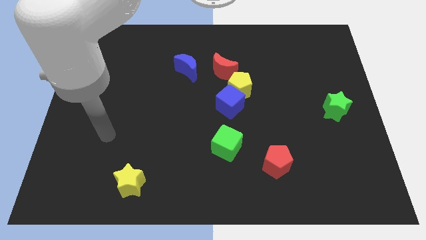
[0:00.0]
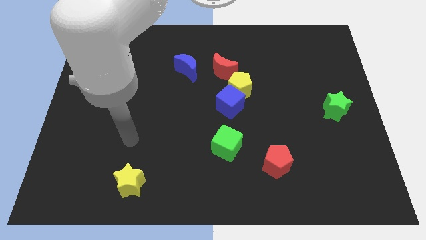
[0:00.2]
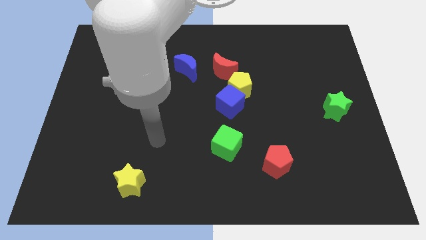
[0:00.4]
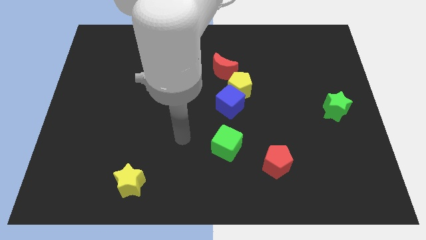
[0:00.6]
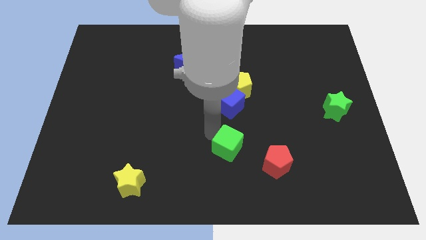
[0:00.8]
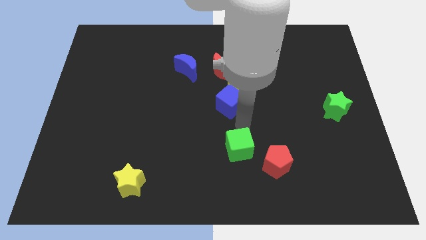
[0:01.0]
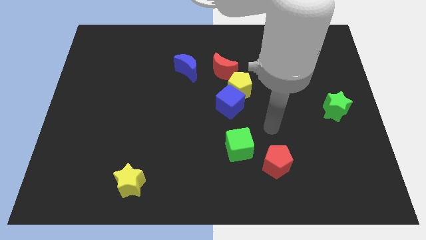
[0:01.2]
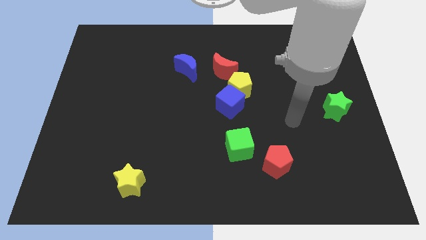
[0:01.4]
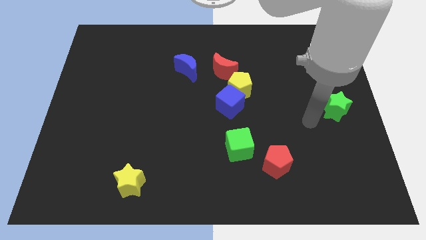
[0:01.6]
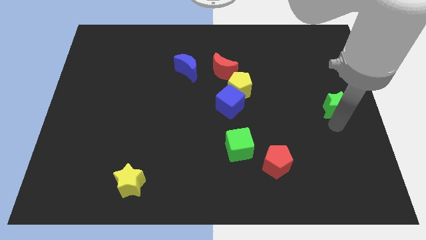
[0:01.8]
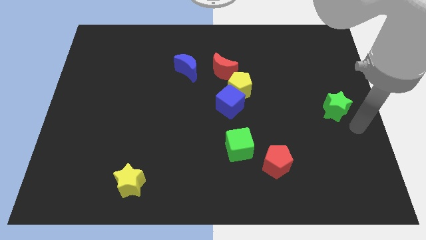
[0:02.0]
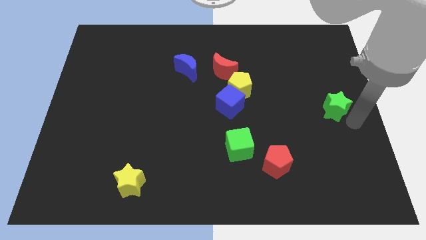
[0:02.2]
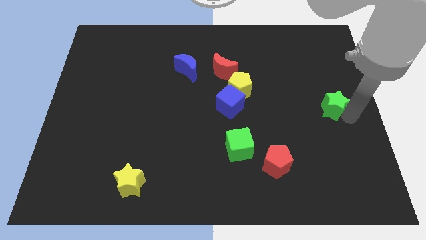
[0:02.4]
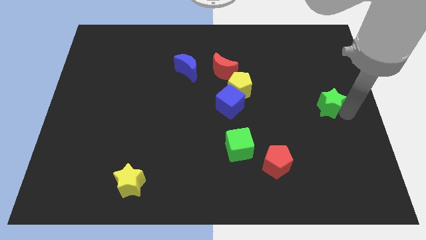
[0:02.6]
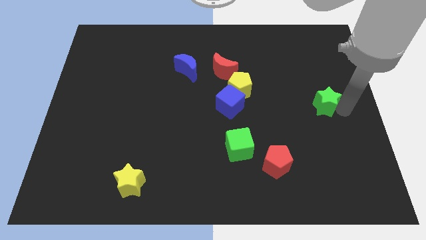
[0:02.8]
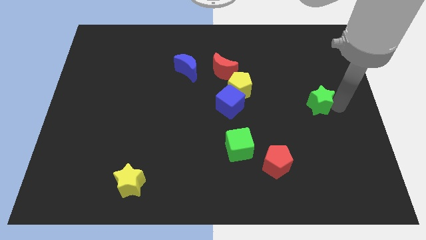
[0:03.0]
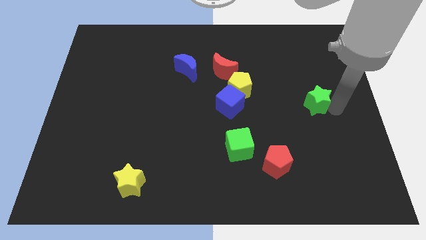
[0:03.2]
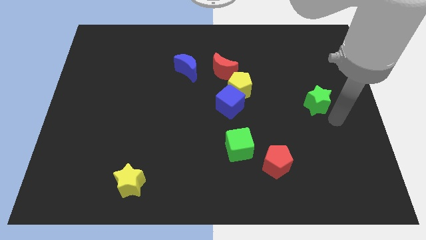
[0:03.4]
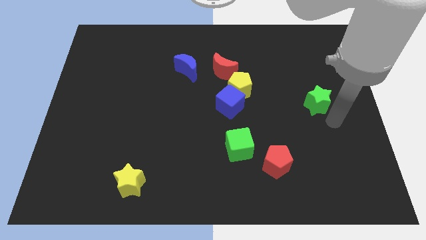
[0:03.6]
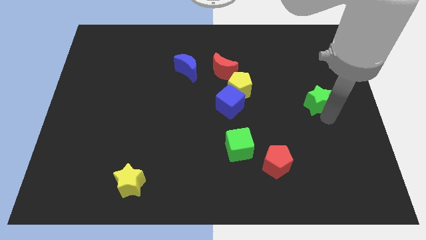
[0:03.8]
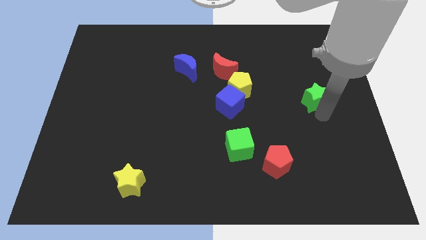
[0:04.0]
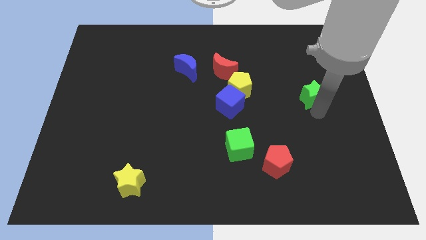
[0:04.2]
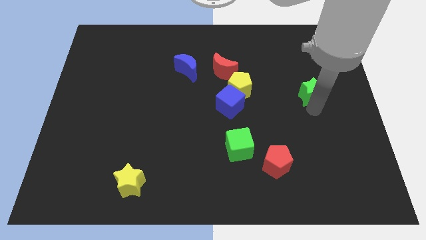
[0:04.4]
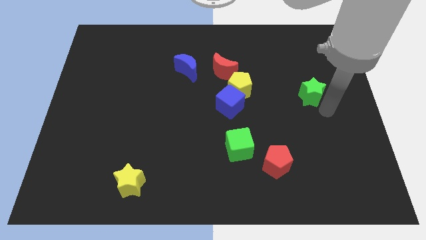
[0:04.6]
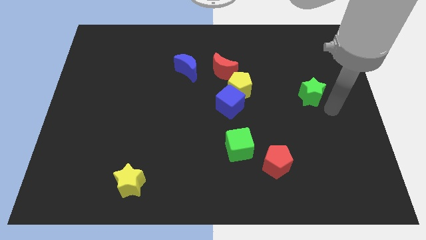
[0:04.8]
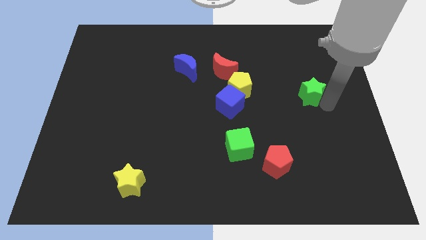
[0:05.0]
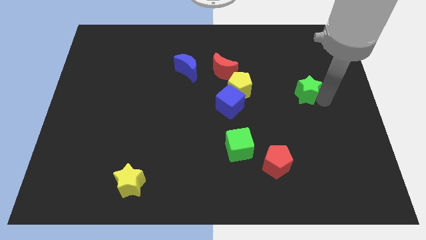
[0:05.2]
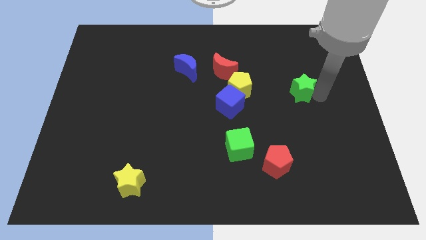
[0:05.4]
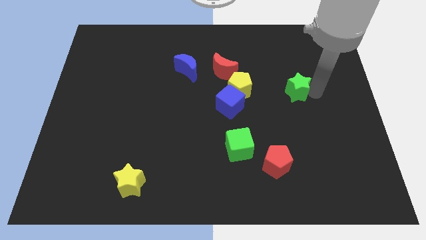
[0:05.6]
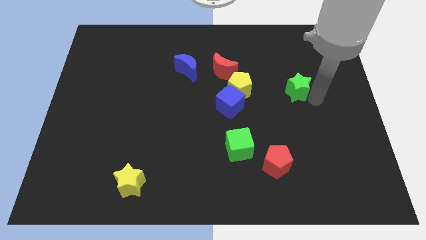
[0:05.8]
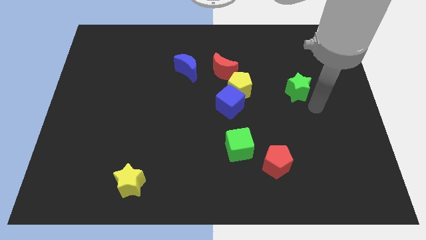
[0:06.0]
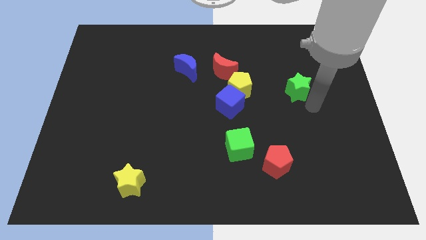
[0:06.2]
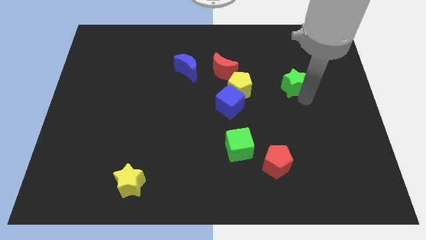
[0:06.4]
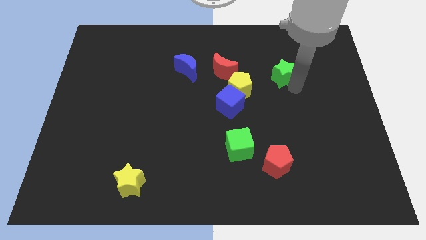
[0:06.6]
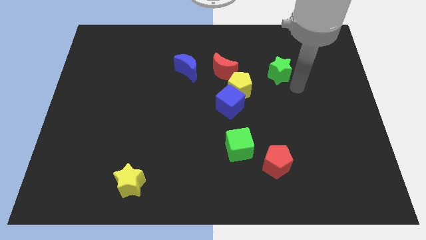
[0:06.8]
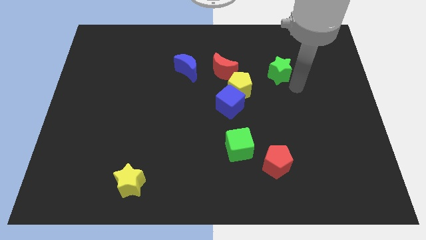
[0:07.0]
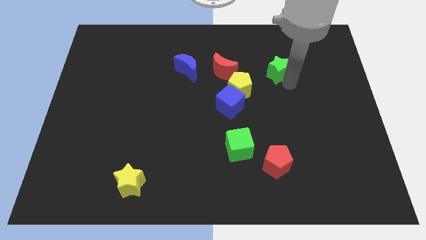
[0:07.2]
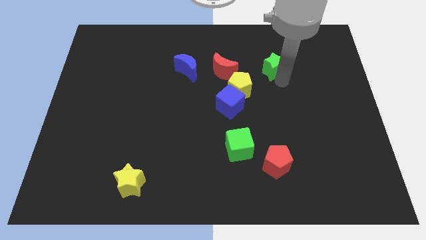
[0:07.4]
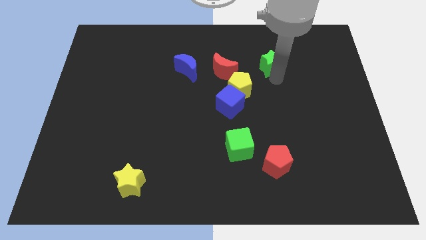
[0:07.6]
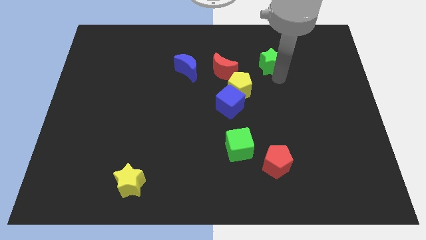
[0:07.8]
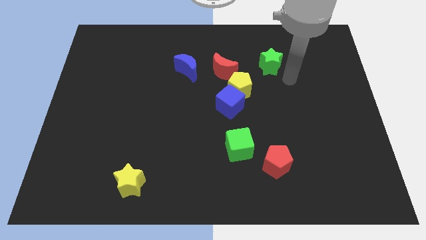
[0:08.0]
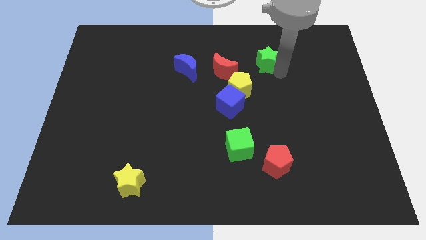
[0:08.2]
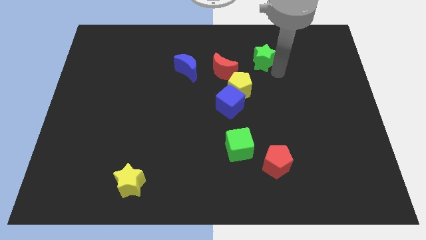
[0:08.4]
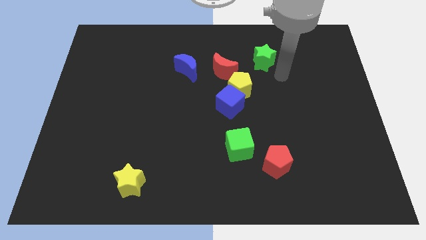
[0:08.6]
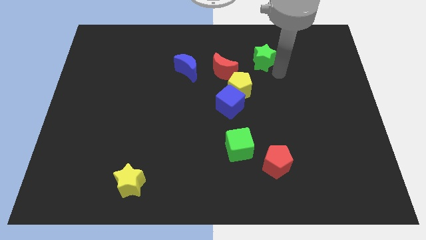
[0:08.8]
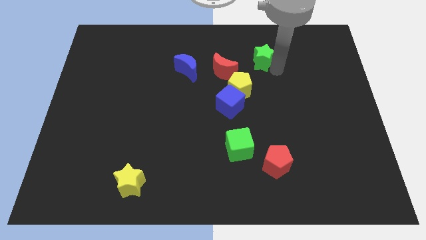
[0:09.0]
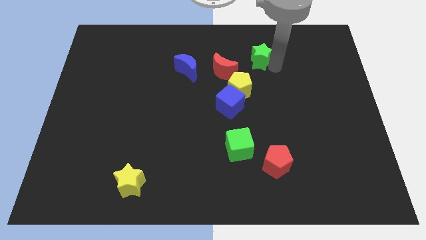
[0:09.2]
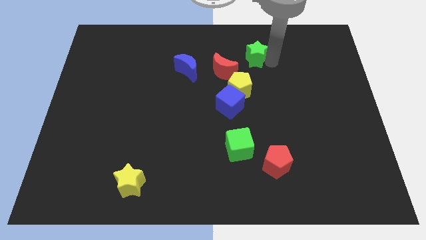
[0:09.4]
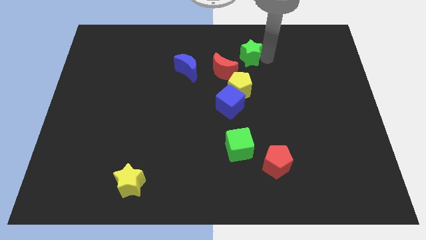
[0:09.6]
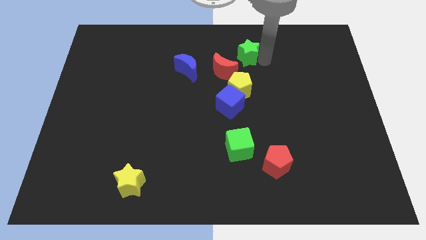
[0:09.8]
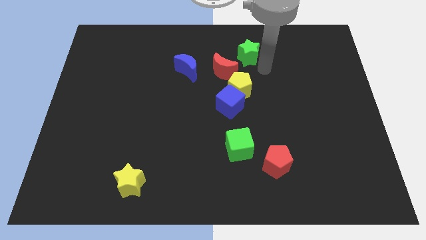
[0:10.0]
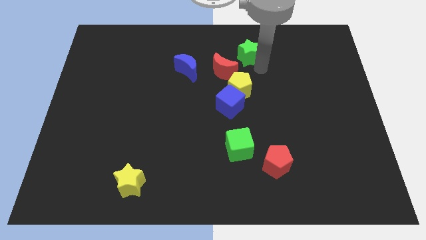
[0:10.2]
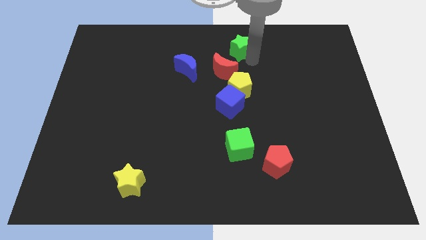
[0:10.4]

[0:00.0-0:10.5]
slide the green star to the top side

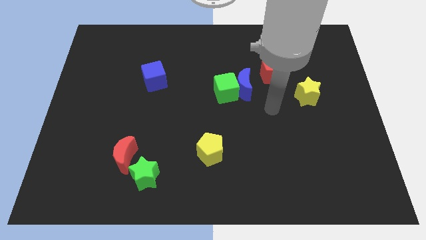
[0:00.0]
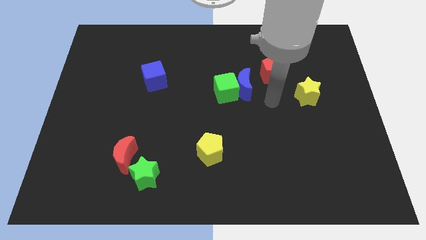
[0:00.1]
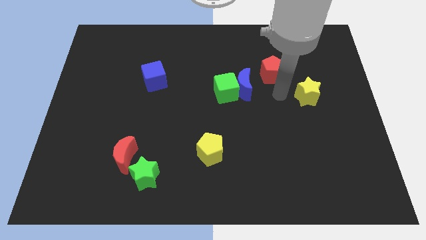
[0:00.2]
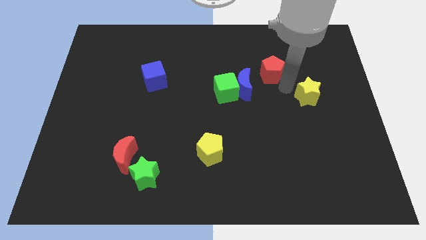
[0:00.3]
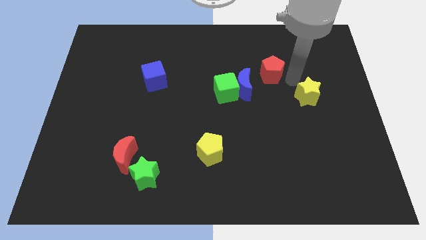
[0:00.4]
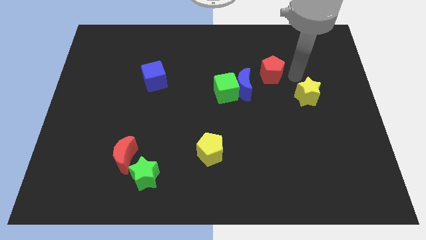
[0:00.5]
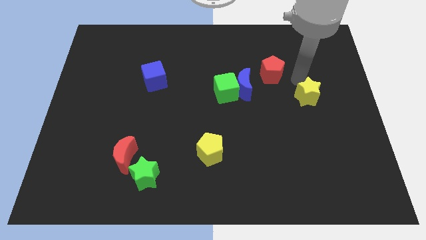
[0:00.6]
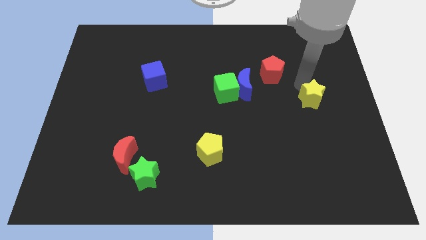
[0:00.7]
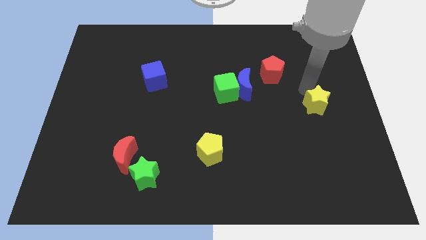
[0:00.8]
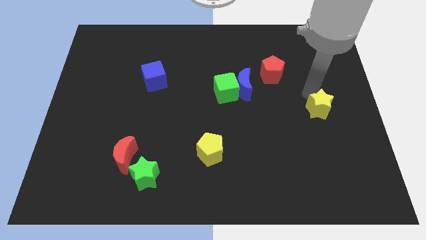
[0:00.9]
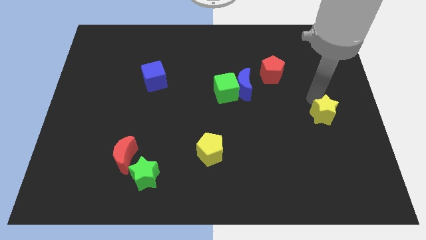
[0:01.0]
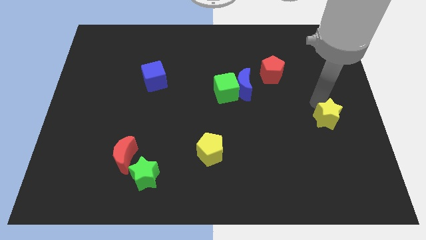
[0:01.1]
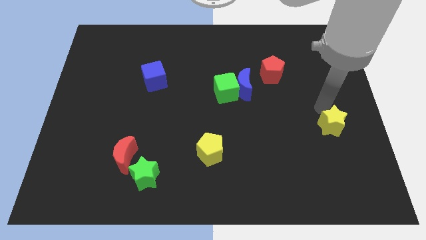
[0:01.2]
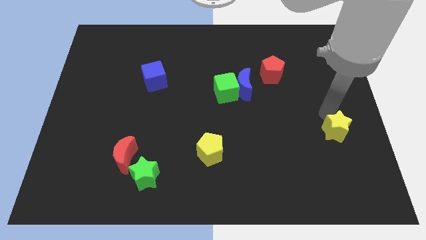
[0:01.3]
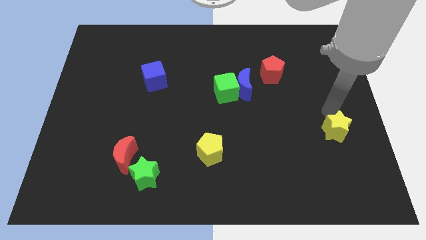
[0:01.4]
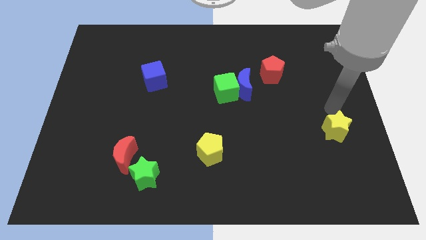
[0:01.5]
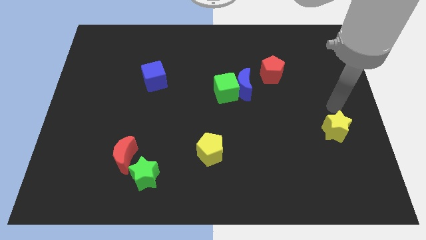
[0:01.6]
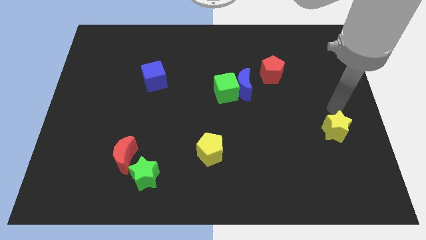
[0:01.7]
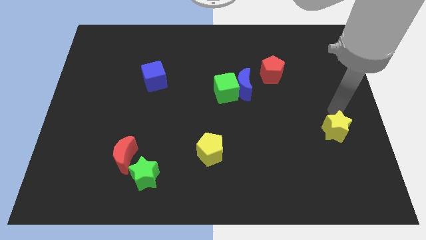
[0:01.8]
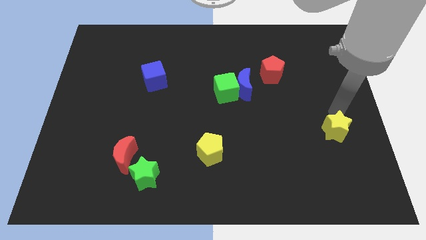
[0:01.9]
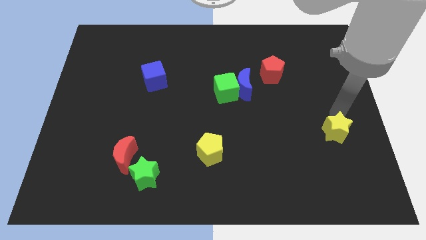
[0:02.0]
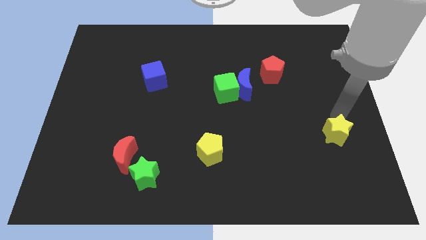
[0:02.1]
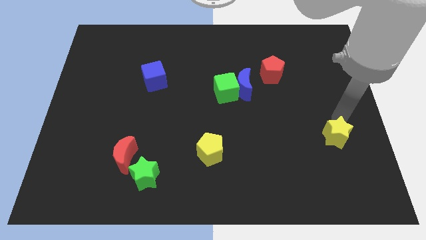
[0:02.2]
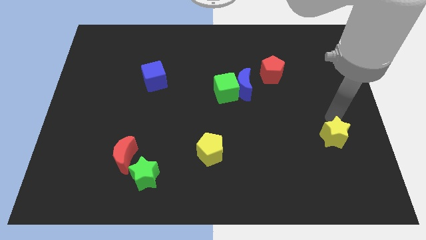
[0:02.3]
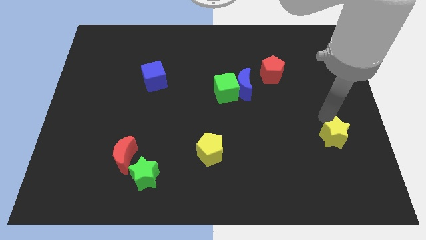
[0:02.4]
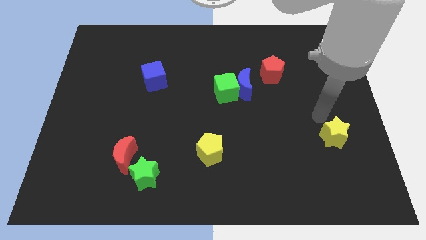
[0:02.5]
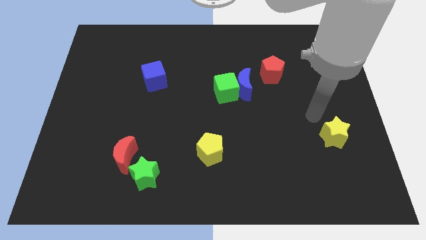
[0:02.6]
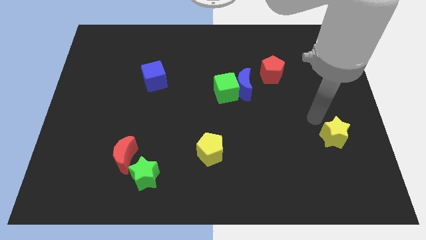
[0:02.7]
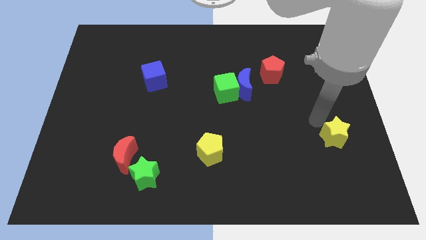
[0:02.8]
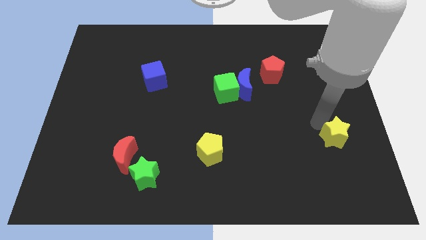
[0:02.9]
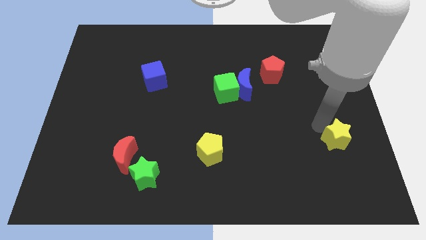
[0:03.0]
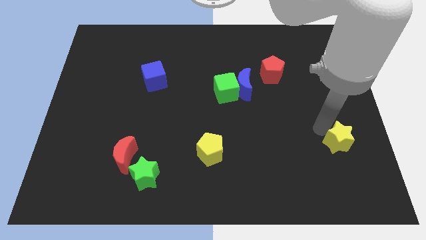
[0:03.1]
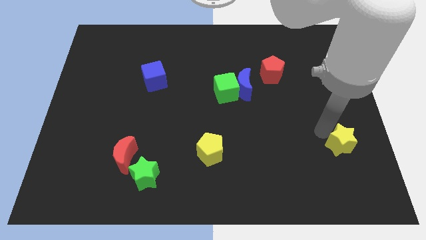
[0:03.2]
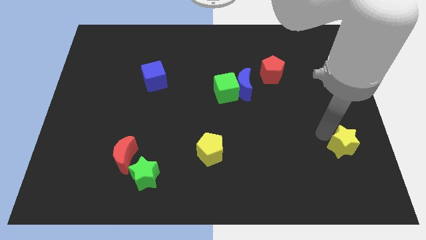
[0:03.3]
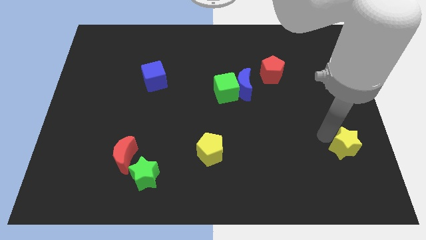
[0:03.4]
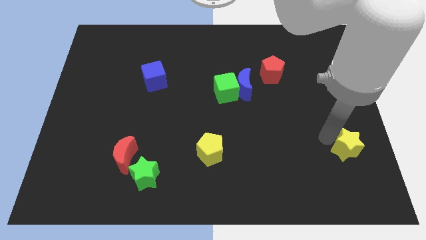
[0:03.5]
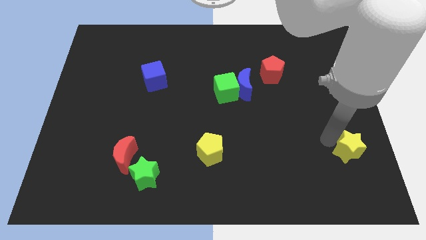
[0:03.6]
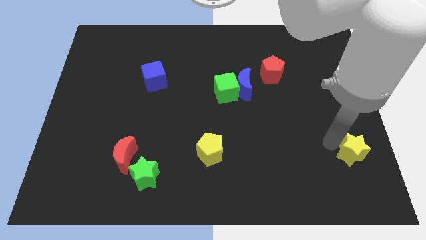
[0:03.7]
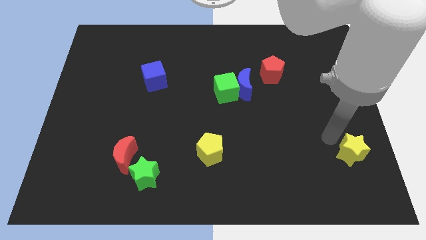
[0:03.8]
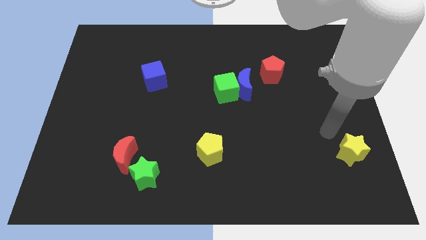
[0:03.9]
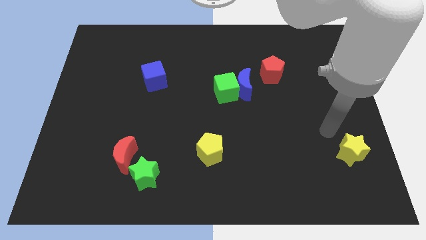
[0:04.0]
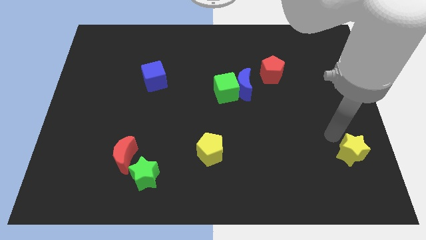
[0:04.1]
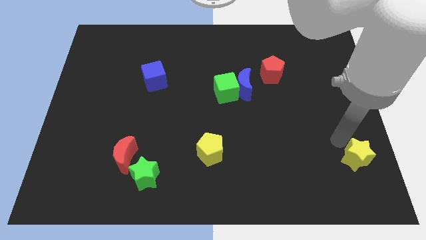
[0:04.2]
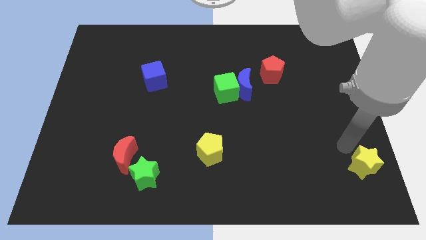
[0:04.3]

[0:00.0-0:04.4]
push the yellow star to the lower right corner
